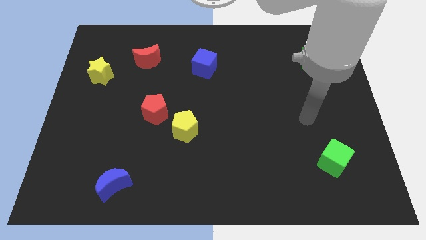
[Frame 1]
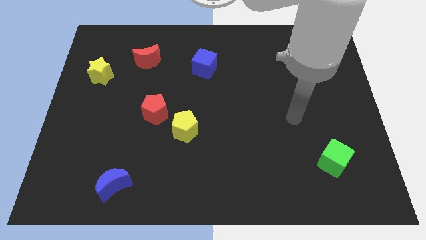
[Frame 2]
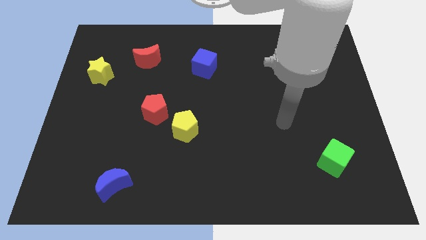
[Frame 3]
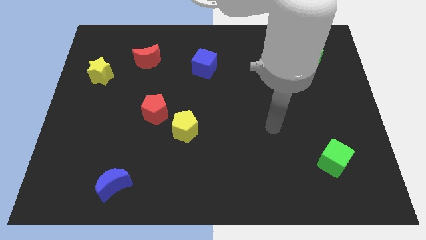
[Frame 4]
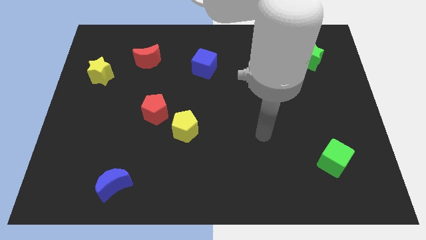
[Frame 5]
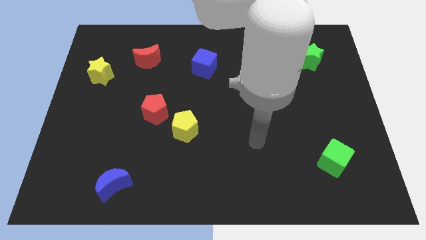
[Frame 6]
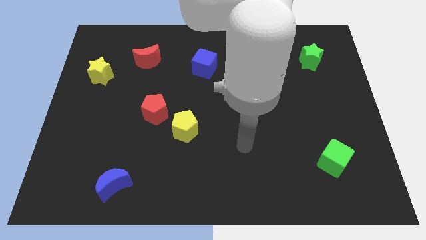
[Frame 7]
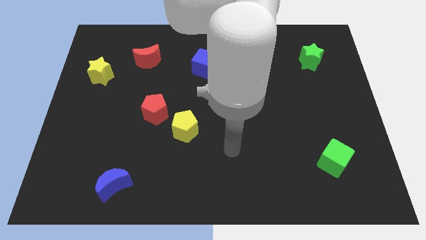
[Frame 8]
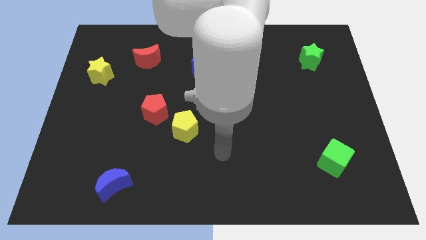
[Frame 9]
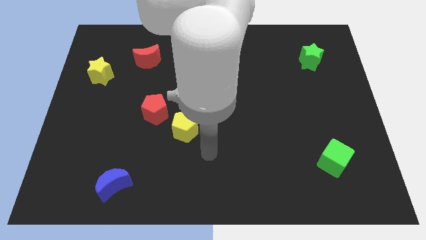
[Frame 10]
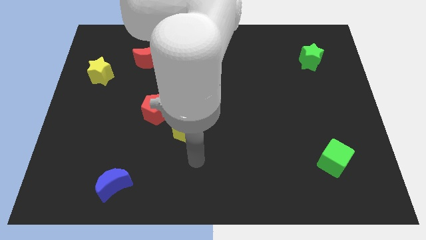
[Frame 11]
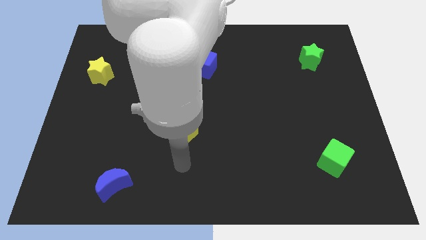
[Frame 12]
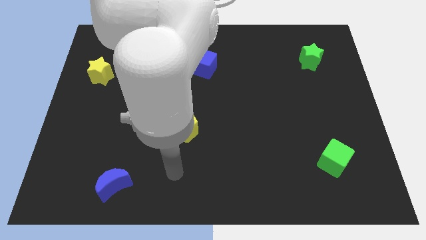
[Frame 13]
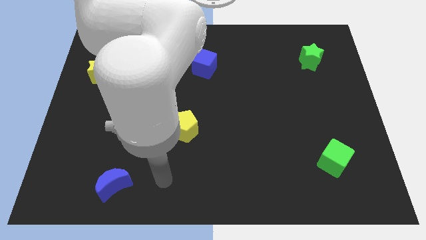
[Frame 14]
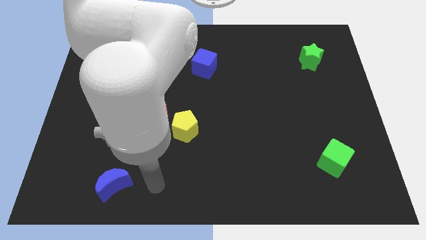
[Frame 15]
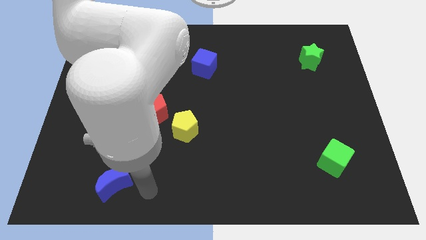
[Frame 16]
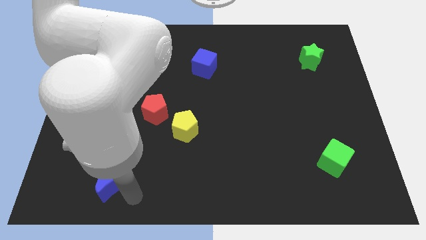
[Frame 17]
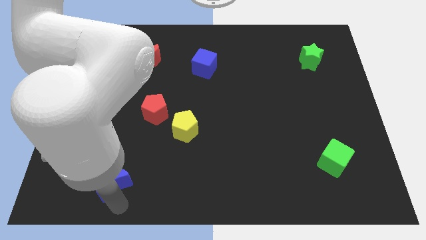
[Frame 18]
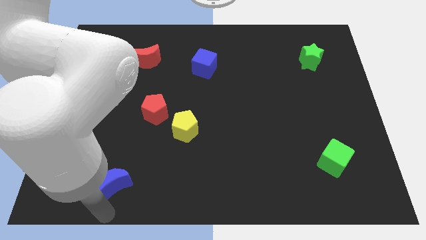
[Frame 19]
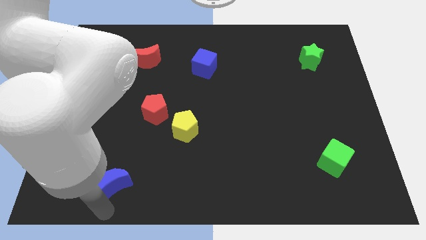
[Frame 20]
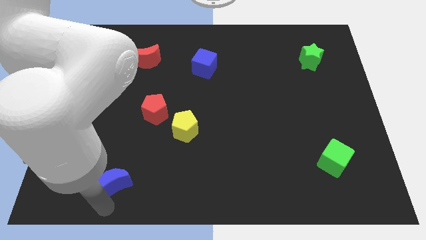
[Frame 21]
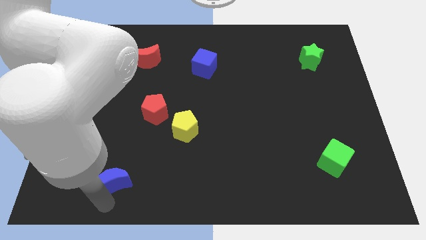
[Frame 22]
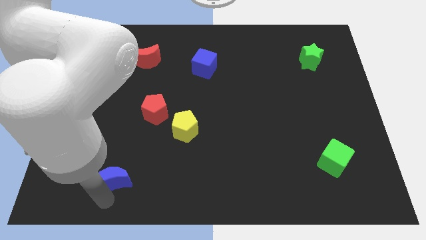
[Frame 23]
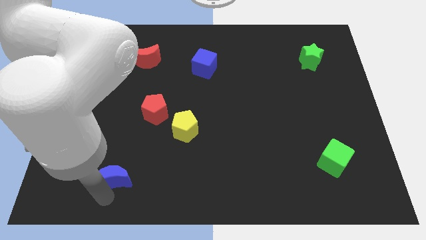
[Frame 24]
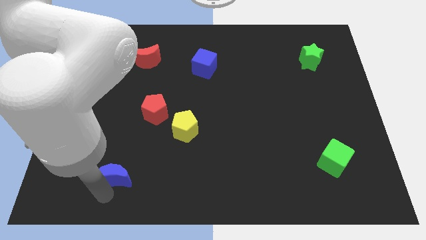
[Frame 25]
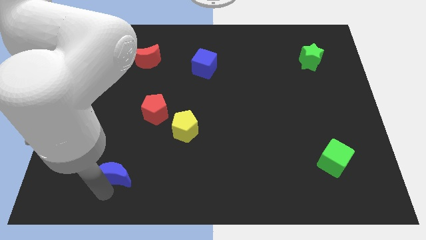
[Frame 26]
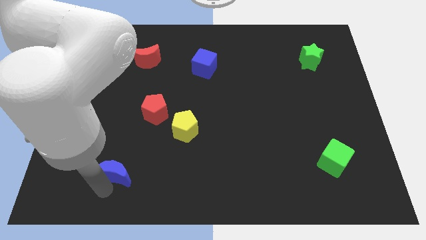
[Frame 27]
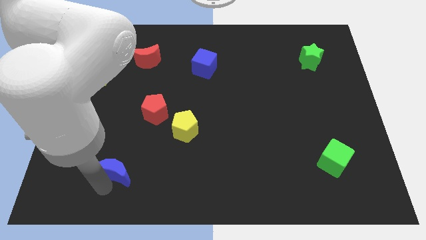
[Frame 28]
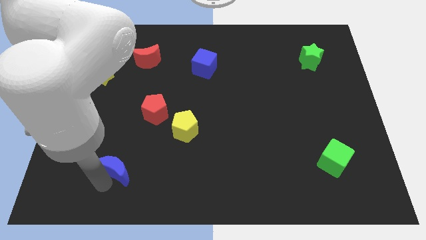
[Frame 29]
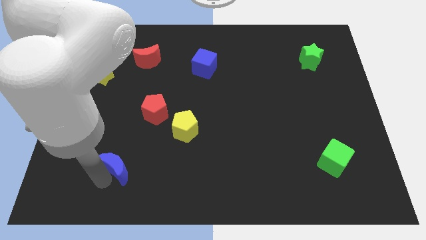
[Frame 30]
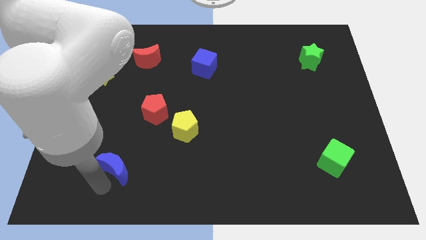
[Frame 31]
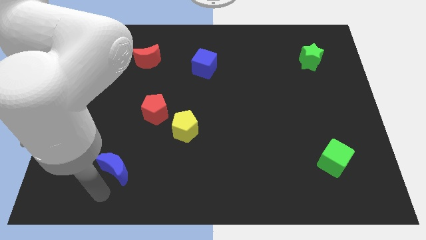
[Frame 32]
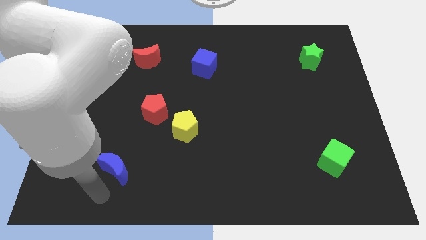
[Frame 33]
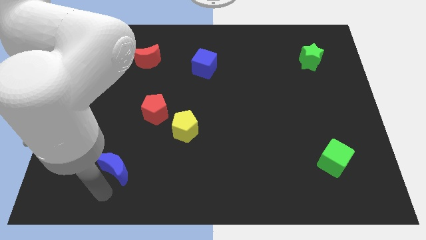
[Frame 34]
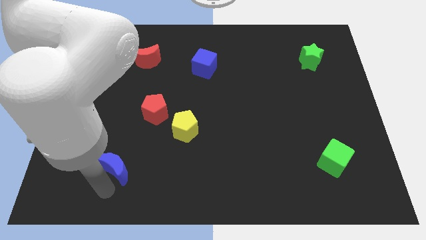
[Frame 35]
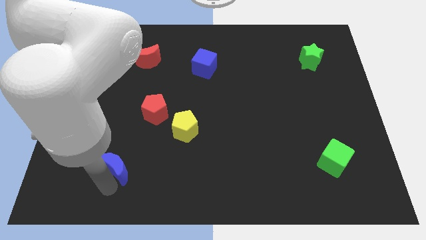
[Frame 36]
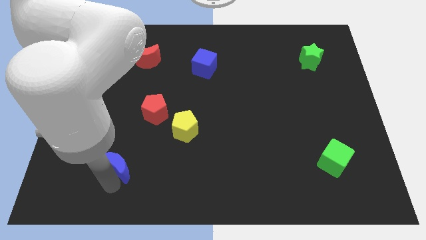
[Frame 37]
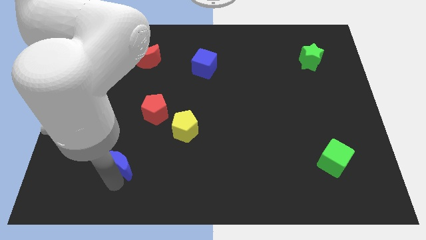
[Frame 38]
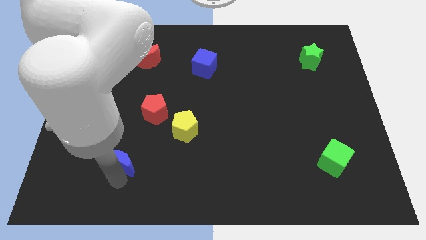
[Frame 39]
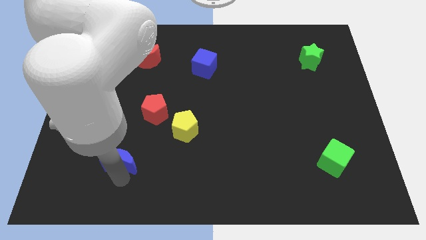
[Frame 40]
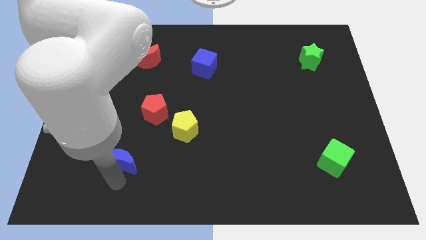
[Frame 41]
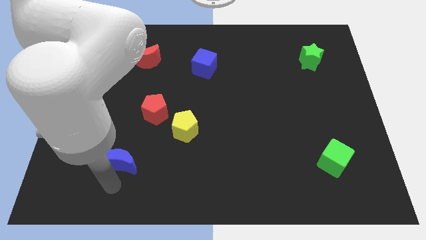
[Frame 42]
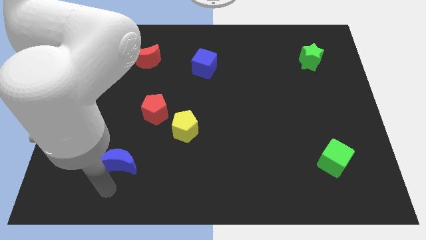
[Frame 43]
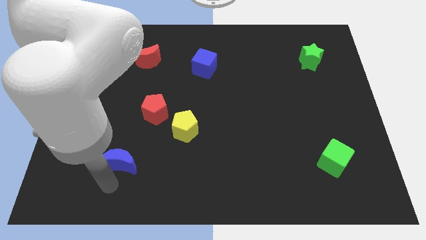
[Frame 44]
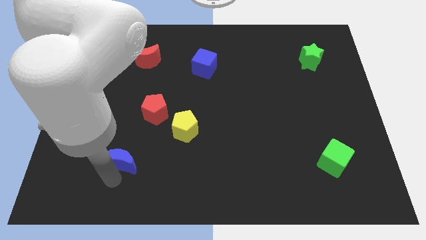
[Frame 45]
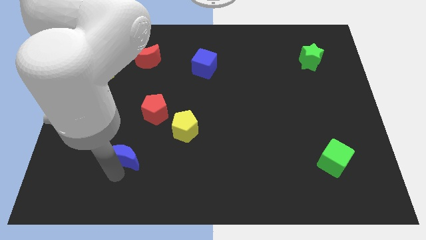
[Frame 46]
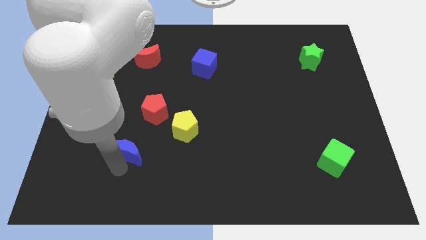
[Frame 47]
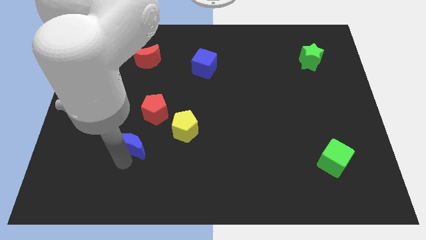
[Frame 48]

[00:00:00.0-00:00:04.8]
move the blue moon to the left side of the yellow pentagon

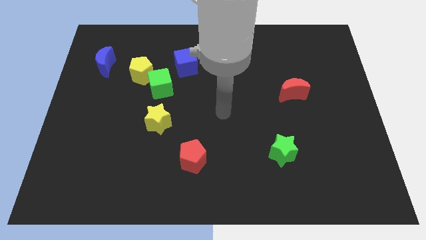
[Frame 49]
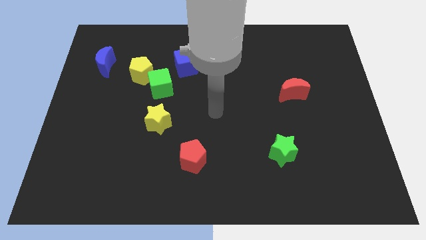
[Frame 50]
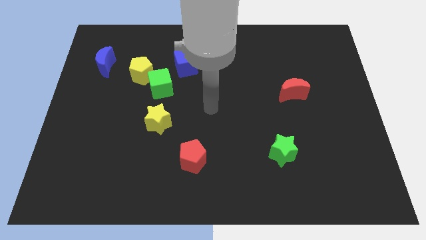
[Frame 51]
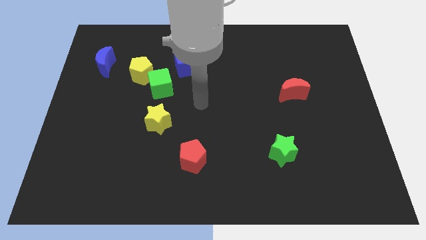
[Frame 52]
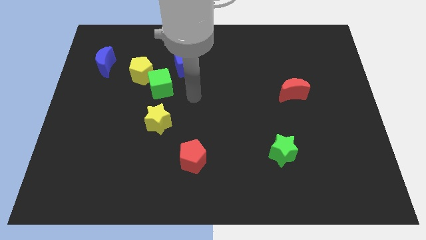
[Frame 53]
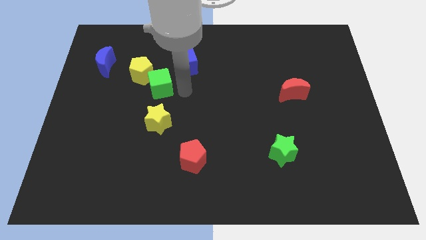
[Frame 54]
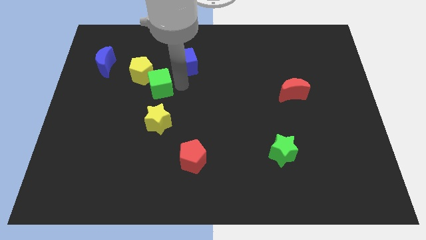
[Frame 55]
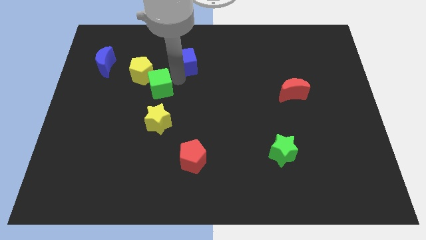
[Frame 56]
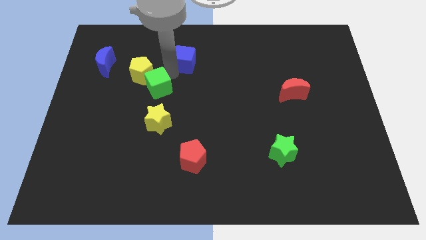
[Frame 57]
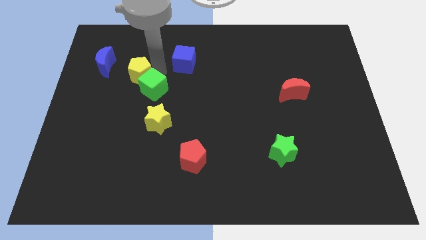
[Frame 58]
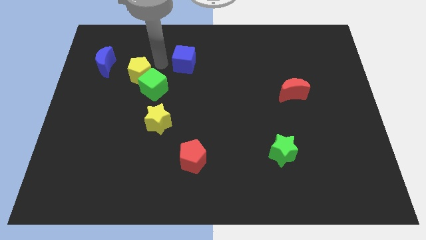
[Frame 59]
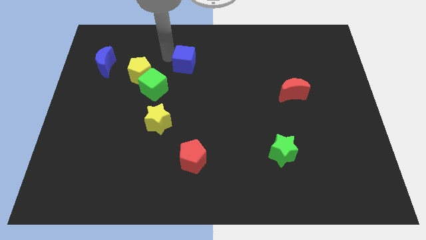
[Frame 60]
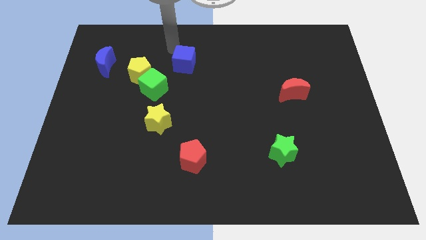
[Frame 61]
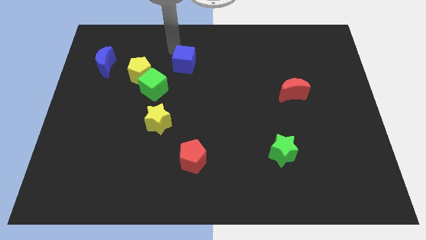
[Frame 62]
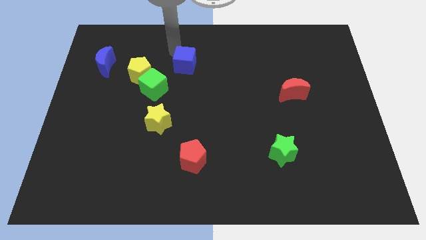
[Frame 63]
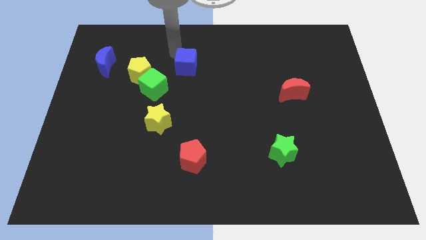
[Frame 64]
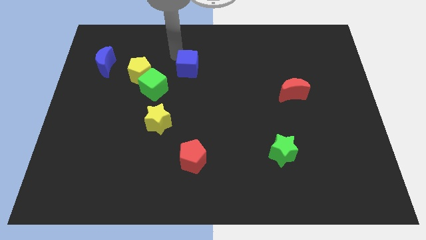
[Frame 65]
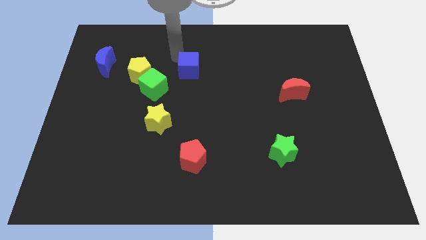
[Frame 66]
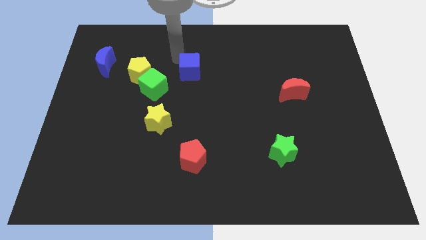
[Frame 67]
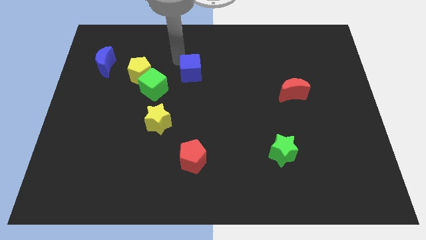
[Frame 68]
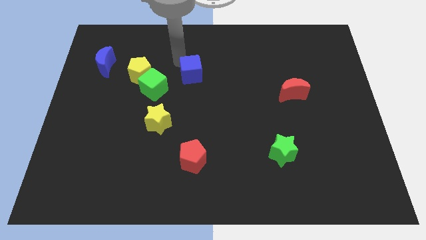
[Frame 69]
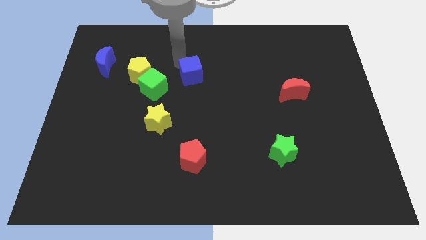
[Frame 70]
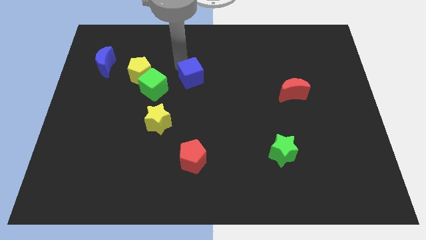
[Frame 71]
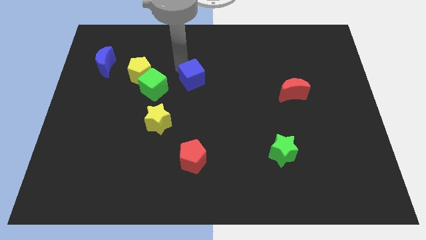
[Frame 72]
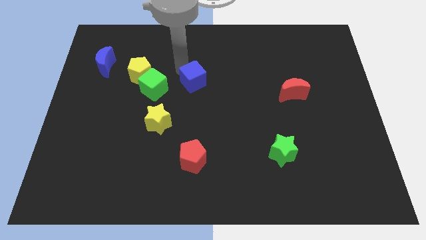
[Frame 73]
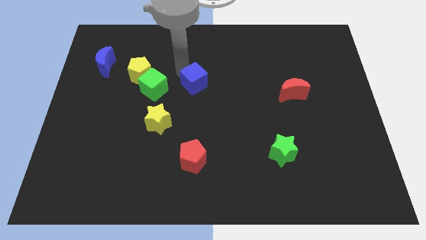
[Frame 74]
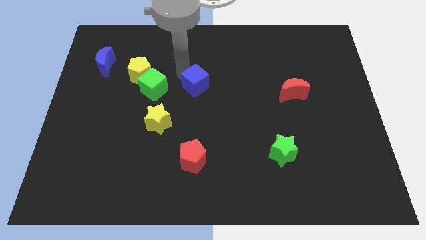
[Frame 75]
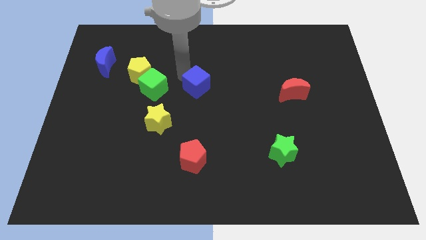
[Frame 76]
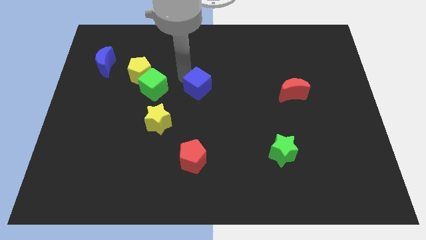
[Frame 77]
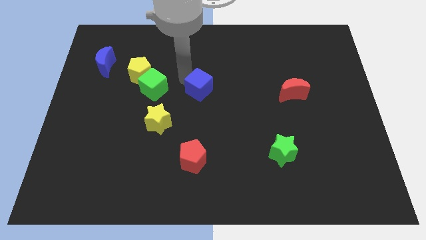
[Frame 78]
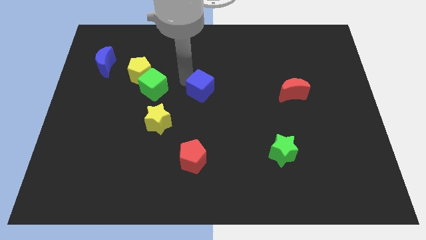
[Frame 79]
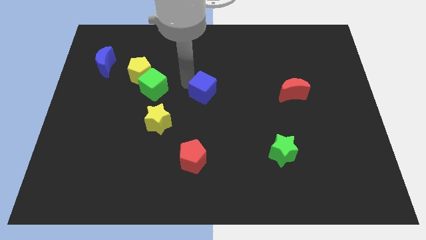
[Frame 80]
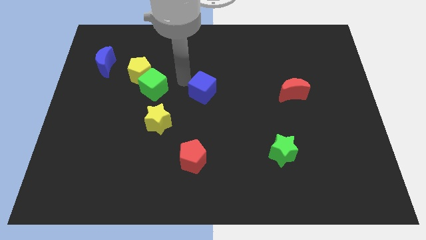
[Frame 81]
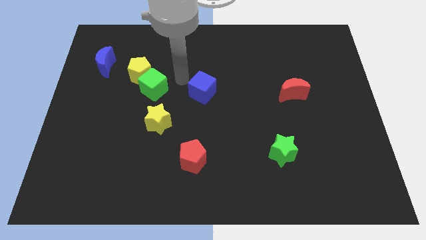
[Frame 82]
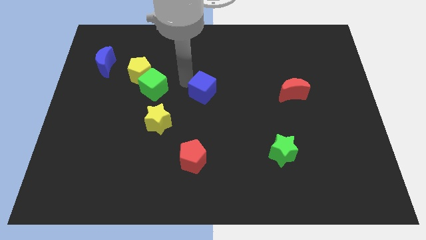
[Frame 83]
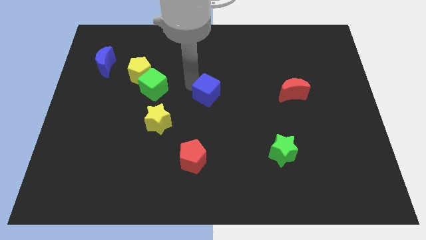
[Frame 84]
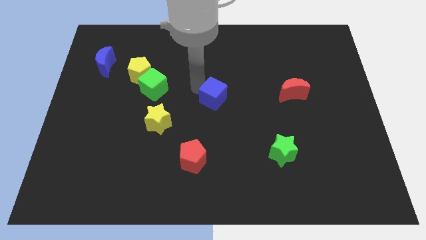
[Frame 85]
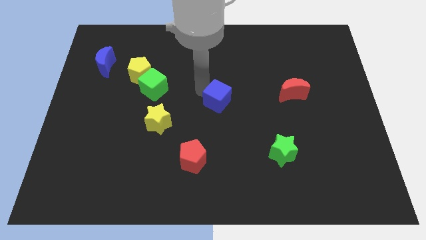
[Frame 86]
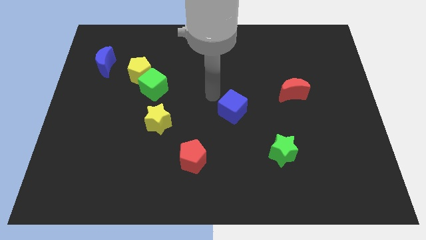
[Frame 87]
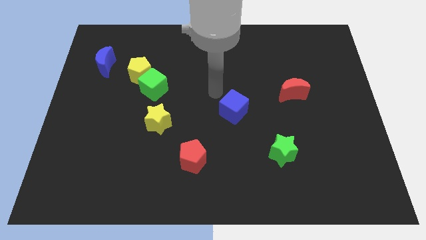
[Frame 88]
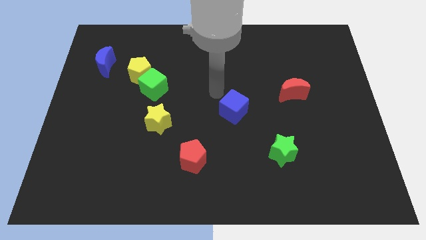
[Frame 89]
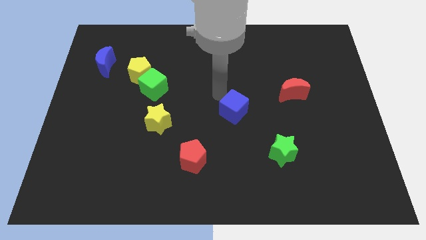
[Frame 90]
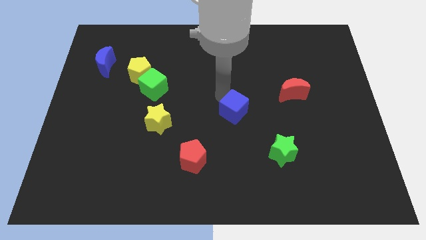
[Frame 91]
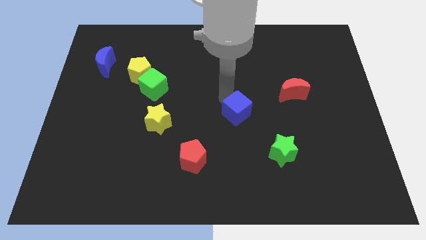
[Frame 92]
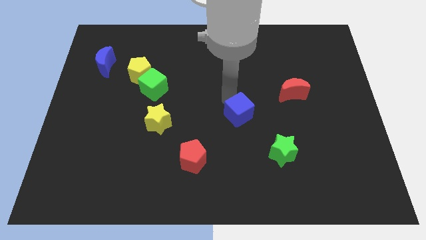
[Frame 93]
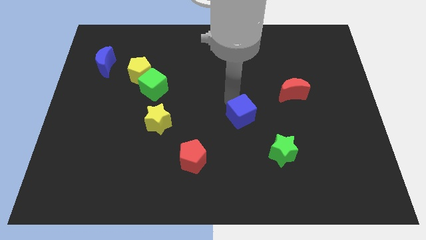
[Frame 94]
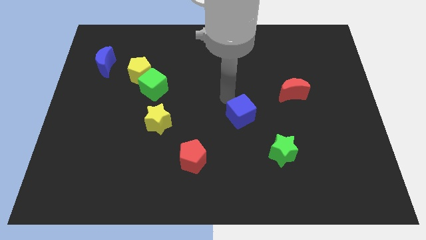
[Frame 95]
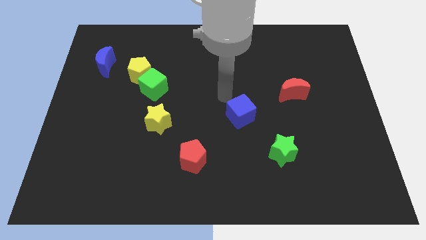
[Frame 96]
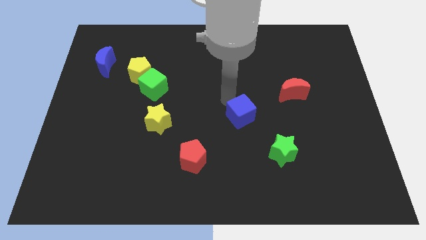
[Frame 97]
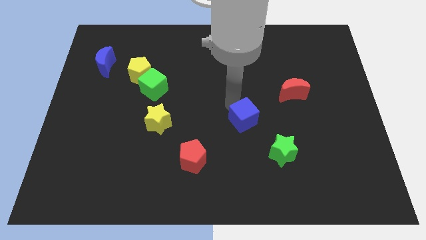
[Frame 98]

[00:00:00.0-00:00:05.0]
push the blue cube to the top left of the green star
